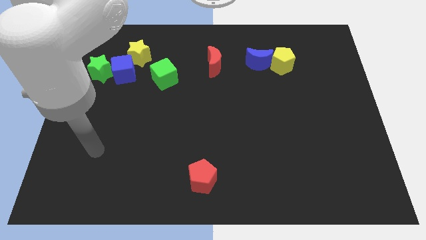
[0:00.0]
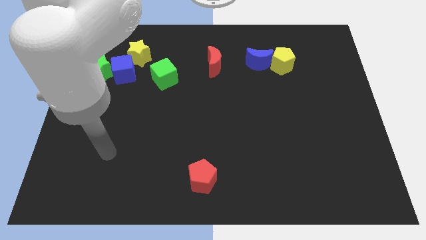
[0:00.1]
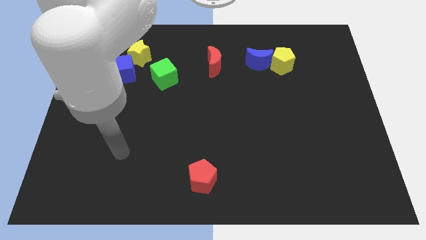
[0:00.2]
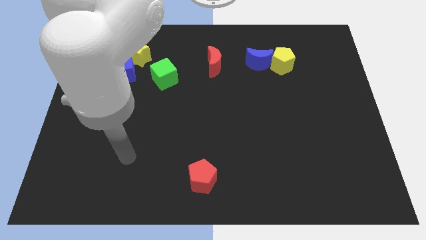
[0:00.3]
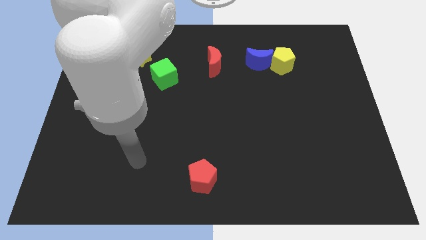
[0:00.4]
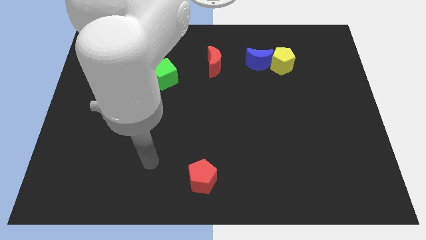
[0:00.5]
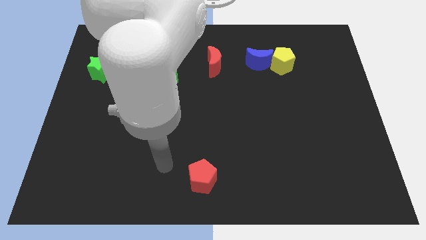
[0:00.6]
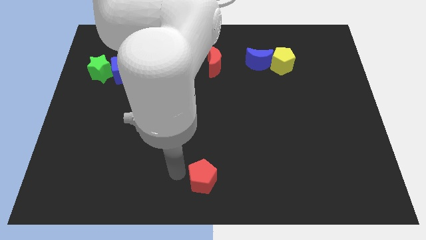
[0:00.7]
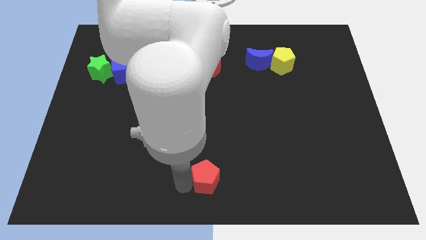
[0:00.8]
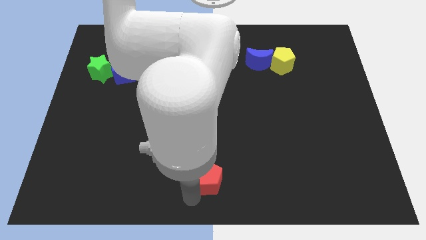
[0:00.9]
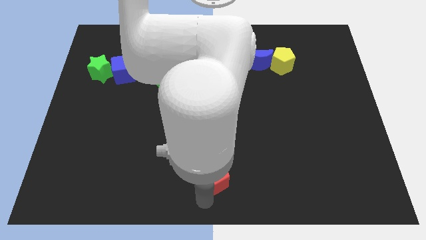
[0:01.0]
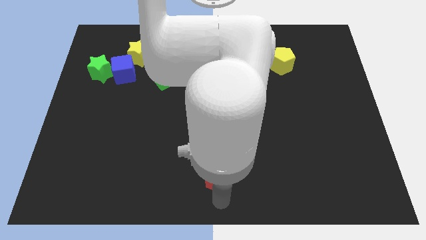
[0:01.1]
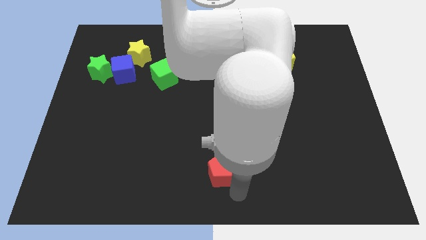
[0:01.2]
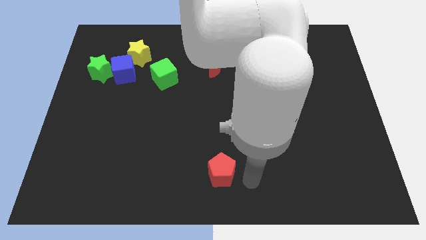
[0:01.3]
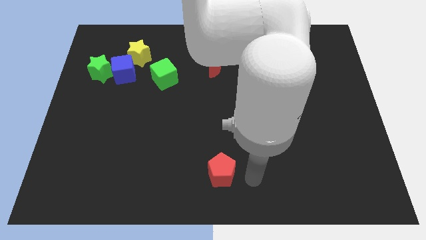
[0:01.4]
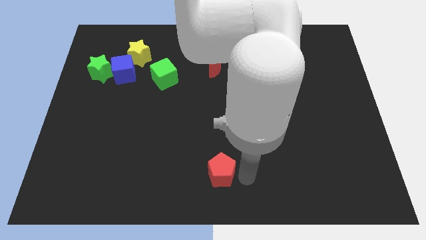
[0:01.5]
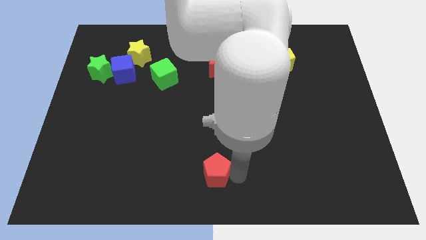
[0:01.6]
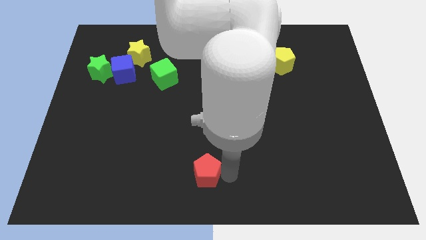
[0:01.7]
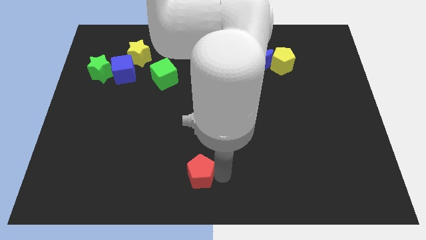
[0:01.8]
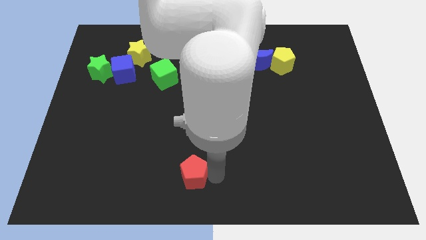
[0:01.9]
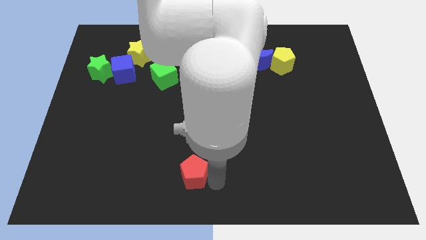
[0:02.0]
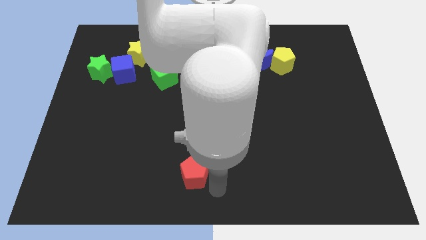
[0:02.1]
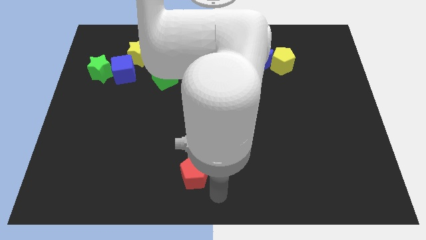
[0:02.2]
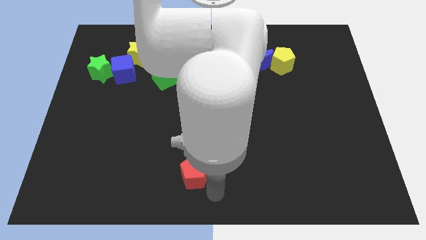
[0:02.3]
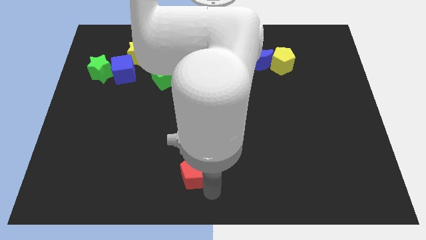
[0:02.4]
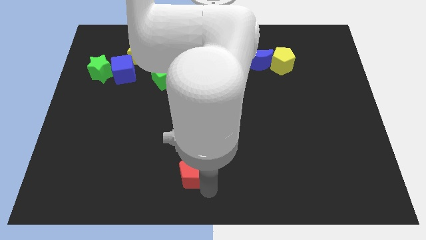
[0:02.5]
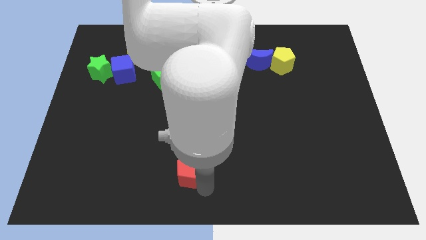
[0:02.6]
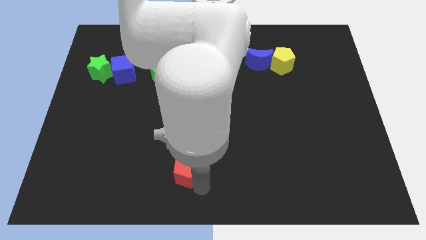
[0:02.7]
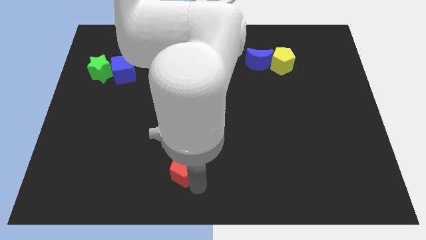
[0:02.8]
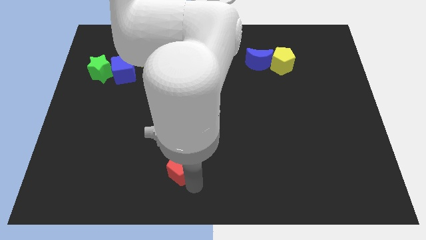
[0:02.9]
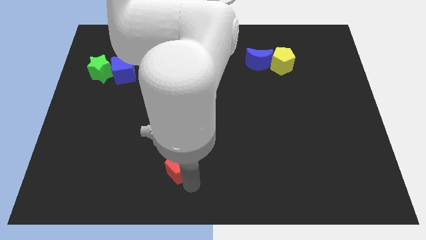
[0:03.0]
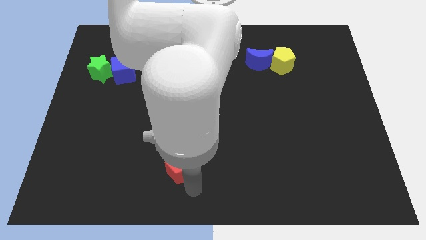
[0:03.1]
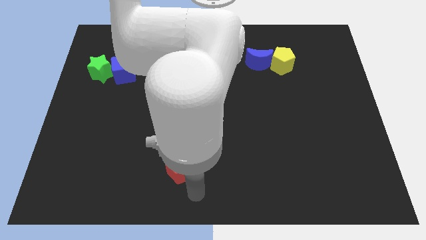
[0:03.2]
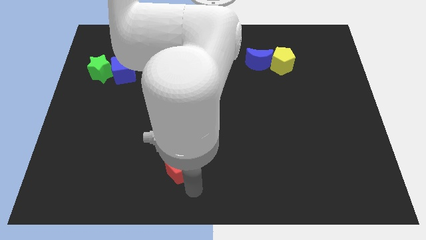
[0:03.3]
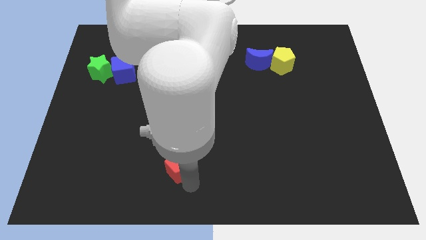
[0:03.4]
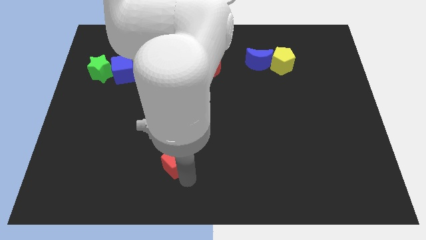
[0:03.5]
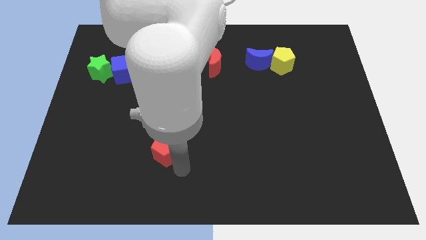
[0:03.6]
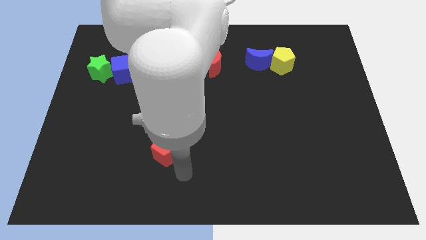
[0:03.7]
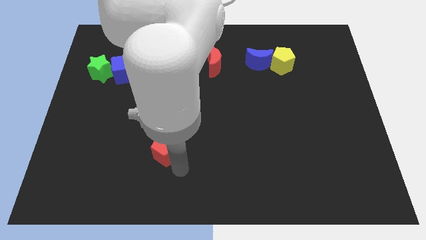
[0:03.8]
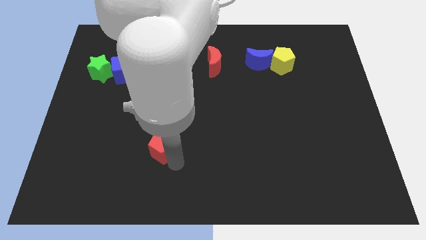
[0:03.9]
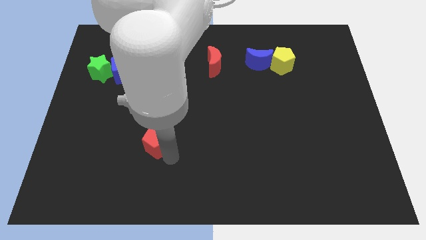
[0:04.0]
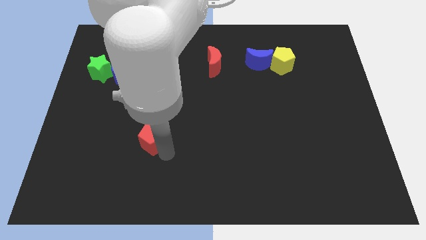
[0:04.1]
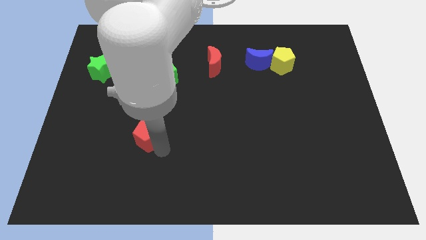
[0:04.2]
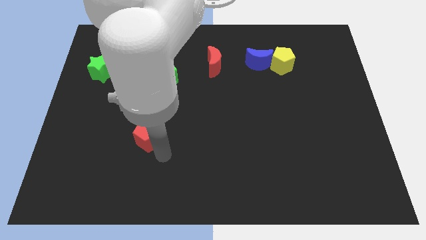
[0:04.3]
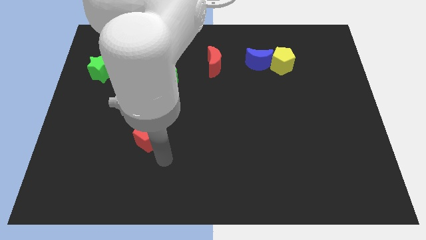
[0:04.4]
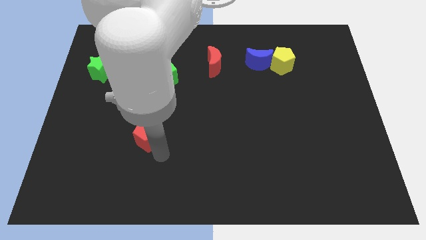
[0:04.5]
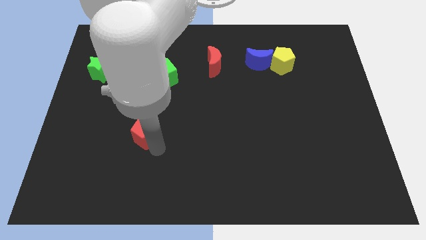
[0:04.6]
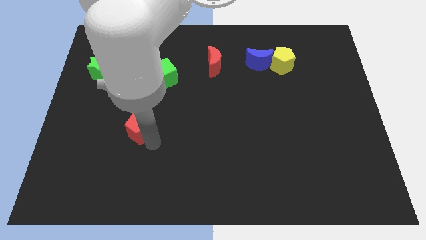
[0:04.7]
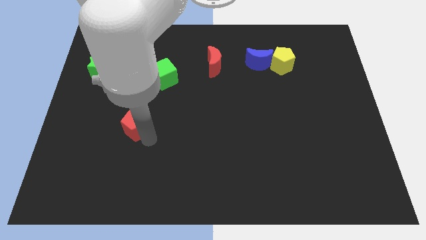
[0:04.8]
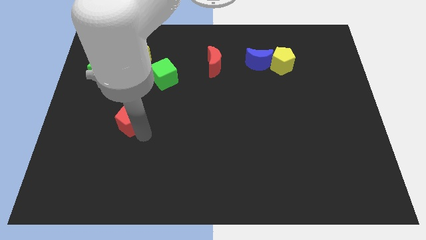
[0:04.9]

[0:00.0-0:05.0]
move the red pentagon up and to the left

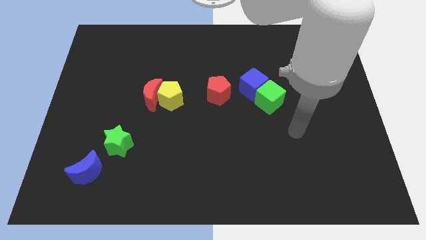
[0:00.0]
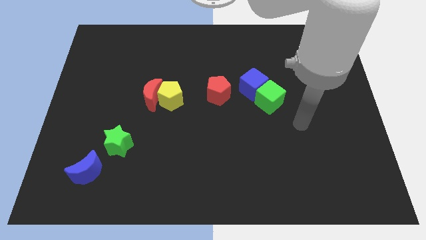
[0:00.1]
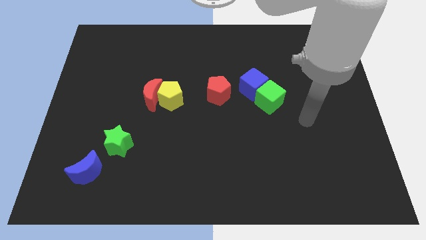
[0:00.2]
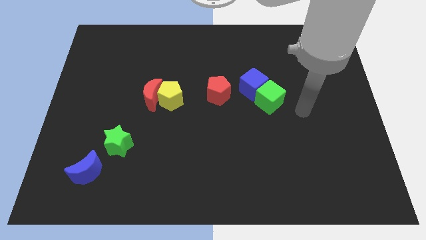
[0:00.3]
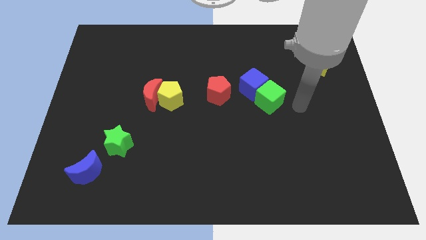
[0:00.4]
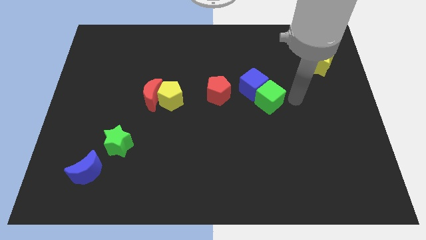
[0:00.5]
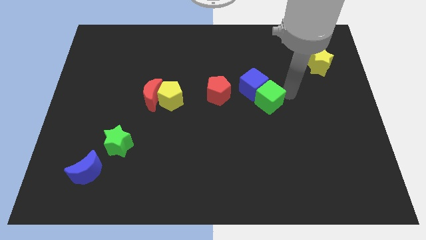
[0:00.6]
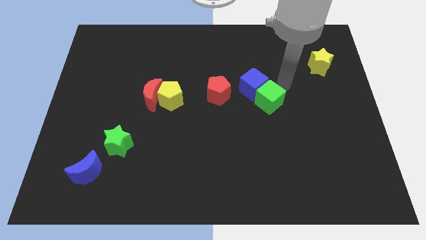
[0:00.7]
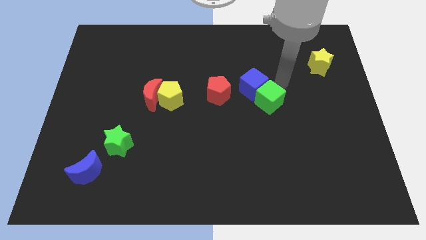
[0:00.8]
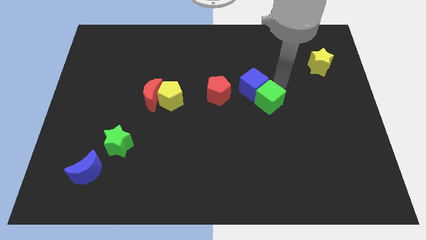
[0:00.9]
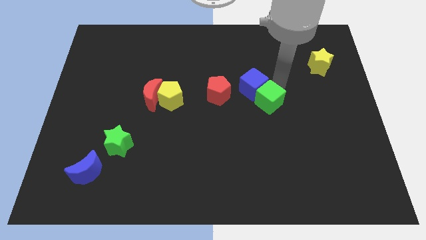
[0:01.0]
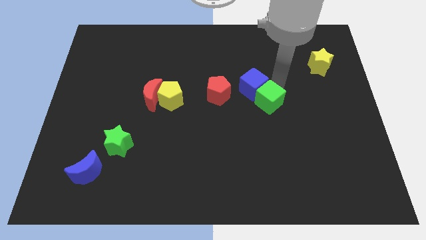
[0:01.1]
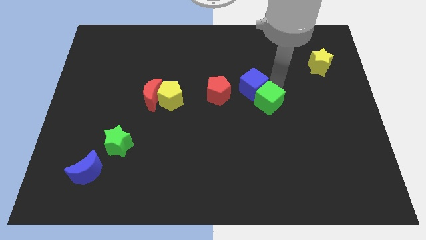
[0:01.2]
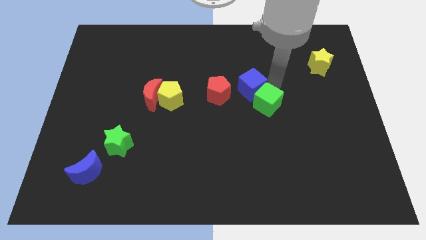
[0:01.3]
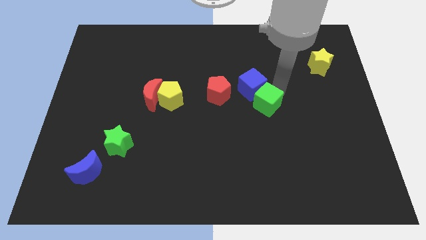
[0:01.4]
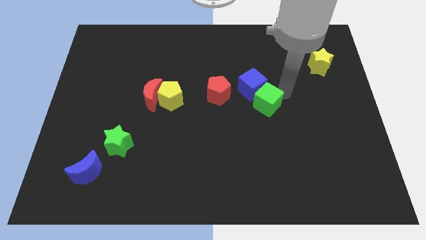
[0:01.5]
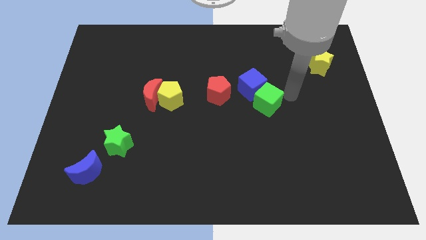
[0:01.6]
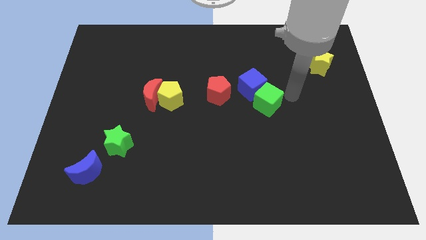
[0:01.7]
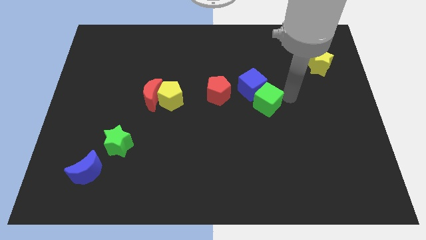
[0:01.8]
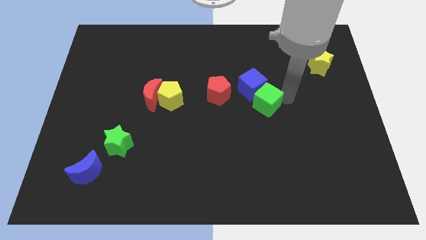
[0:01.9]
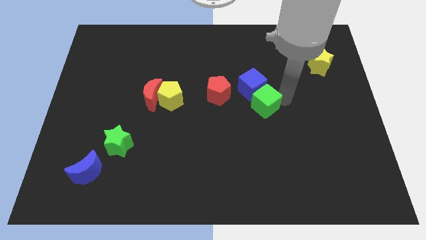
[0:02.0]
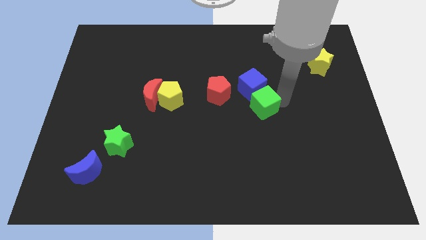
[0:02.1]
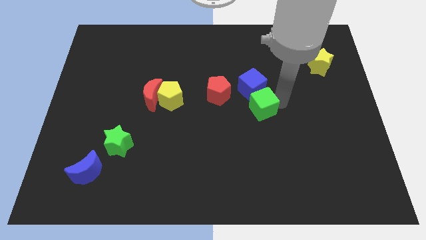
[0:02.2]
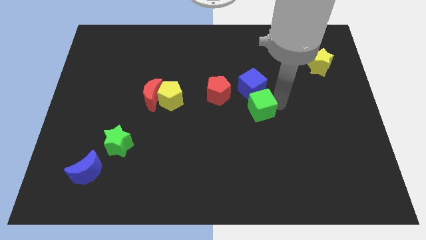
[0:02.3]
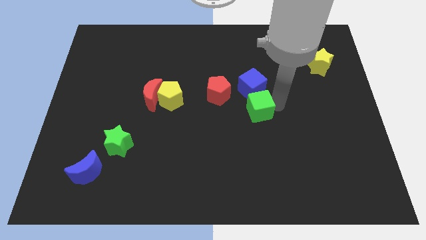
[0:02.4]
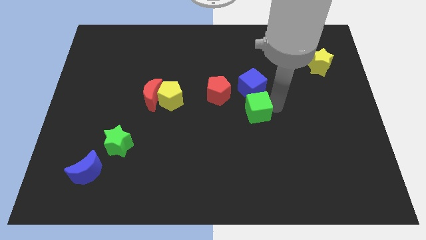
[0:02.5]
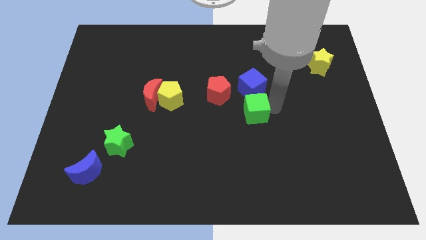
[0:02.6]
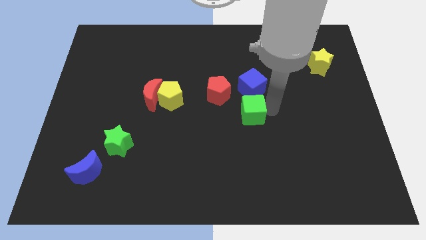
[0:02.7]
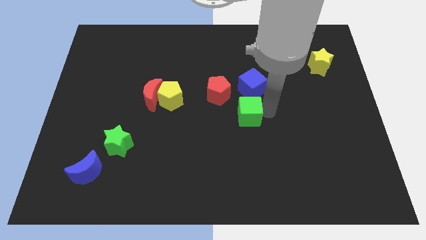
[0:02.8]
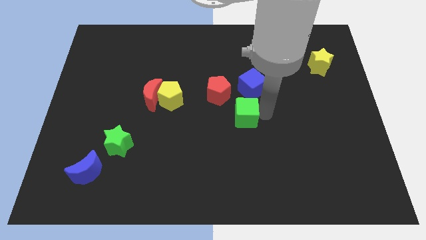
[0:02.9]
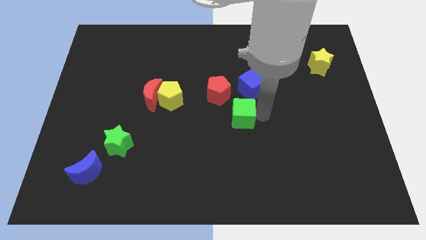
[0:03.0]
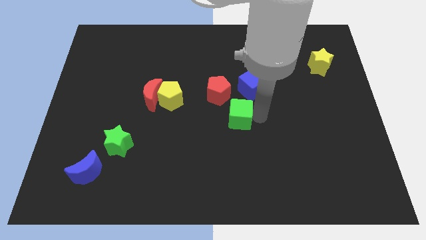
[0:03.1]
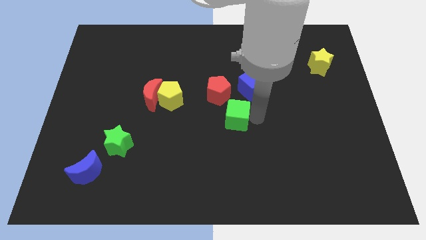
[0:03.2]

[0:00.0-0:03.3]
push the green cube left a bit
